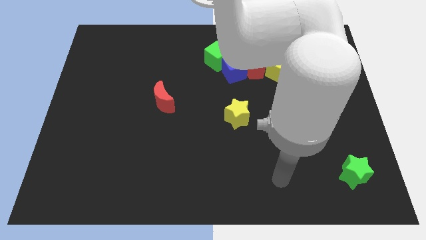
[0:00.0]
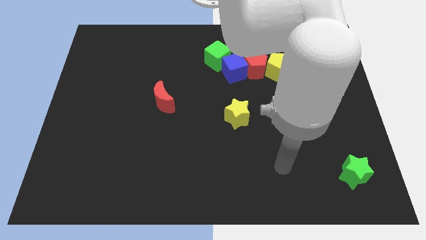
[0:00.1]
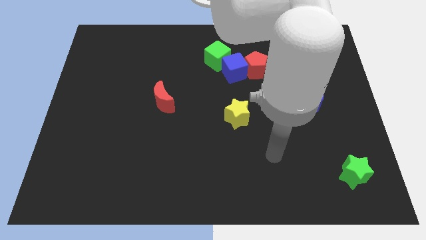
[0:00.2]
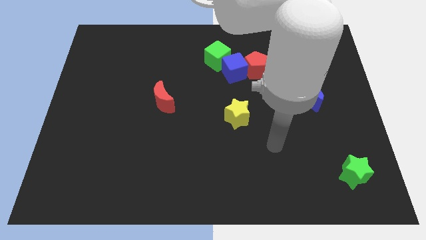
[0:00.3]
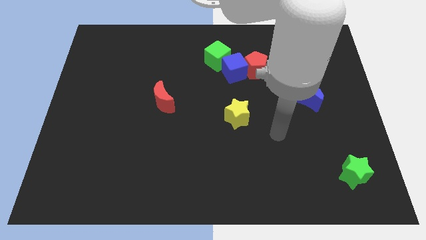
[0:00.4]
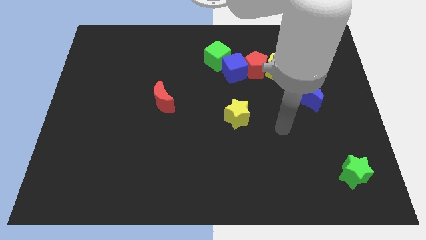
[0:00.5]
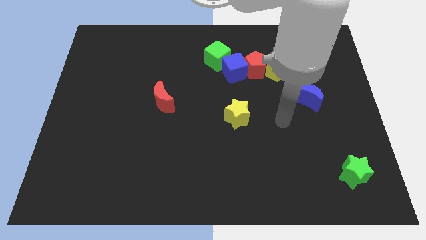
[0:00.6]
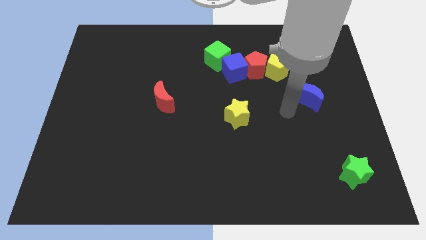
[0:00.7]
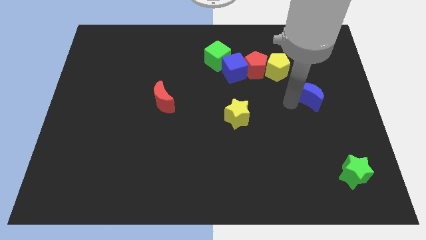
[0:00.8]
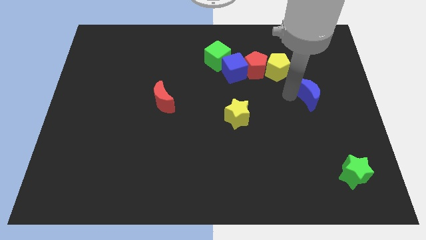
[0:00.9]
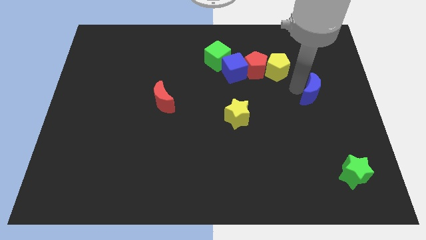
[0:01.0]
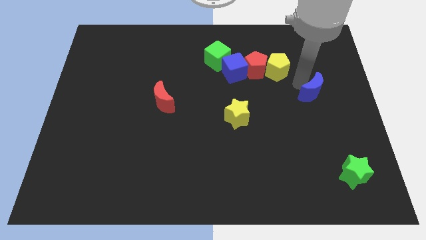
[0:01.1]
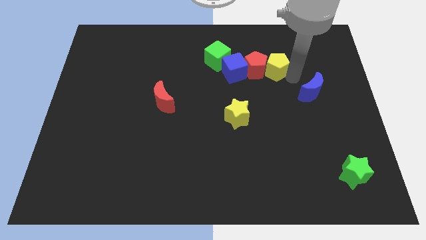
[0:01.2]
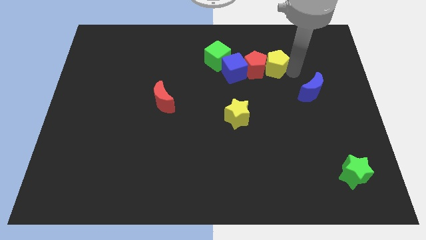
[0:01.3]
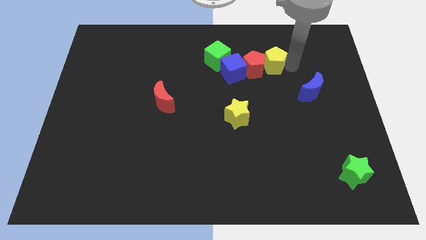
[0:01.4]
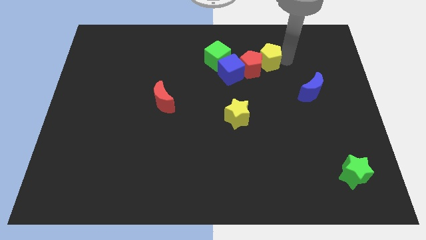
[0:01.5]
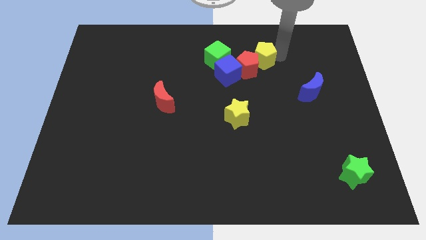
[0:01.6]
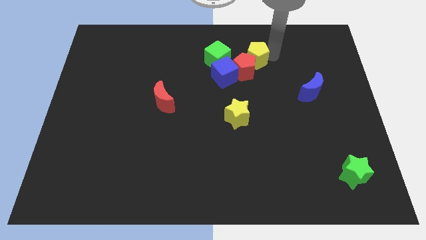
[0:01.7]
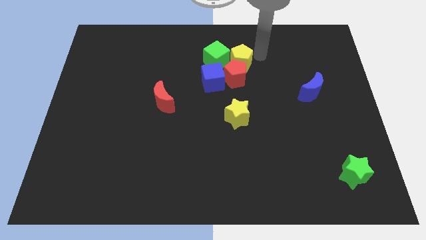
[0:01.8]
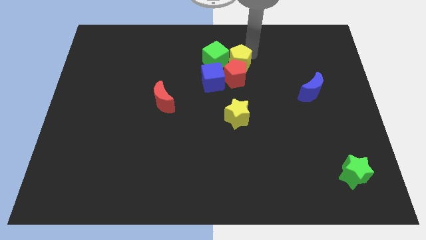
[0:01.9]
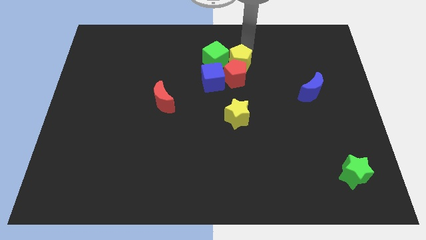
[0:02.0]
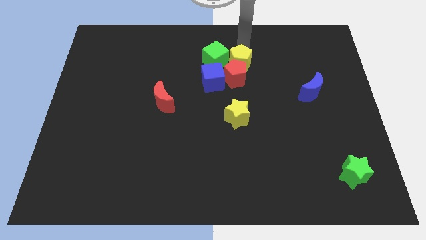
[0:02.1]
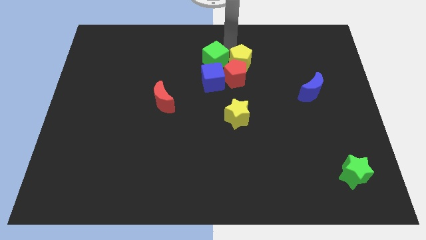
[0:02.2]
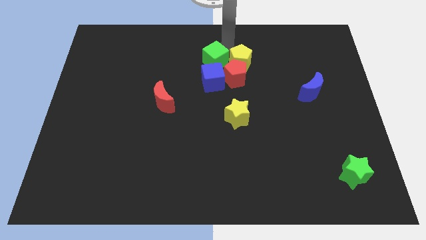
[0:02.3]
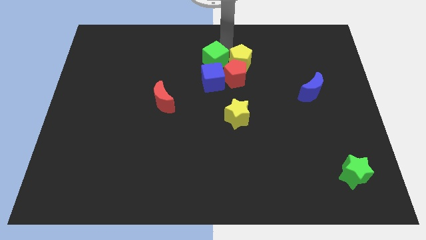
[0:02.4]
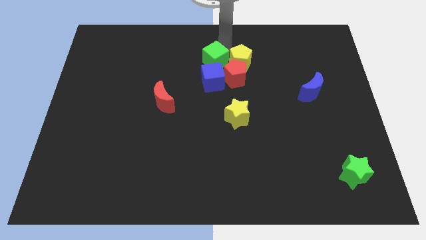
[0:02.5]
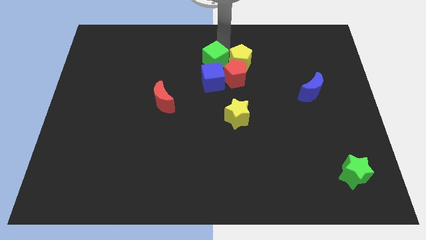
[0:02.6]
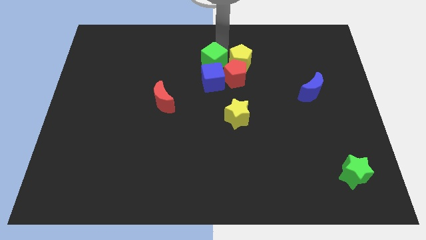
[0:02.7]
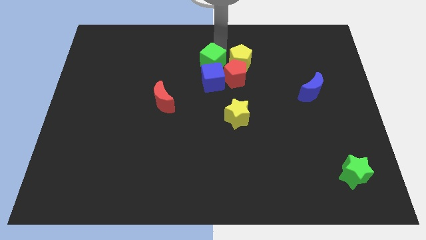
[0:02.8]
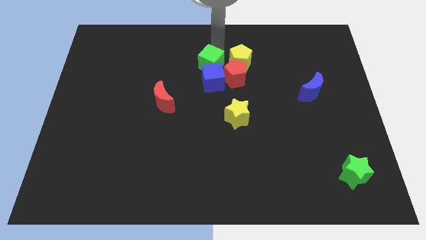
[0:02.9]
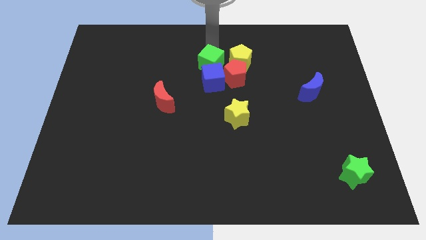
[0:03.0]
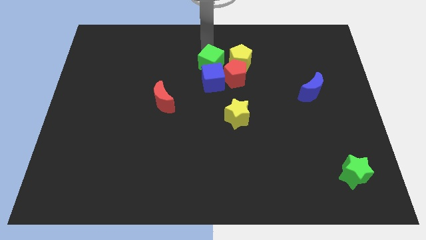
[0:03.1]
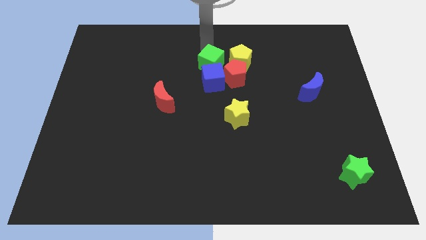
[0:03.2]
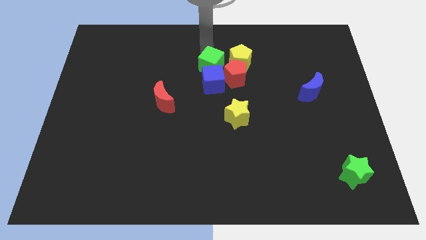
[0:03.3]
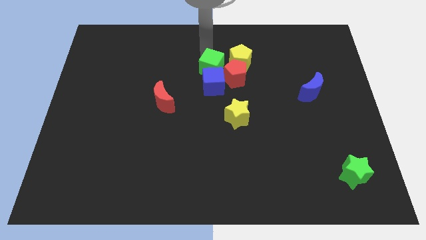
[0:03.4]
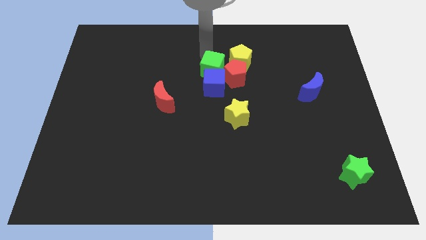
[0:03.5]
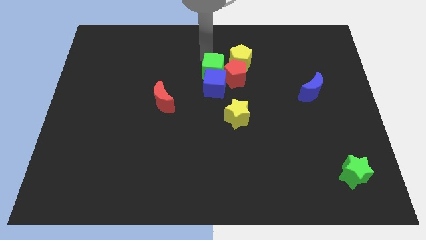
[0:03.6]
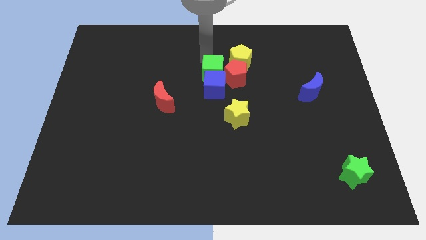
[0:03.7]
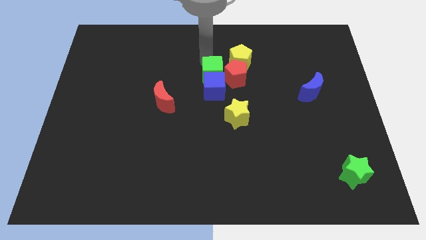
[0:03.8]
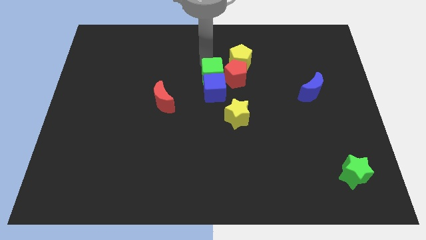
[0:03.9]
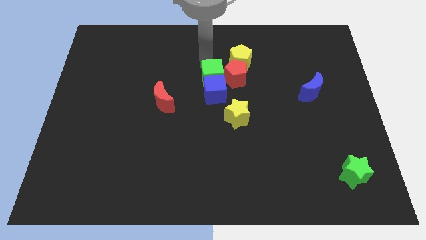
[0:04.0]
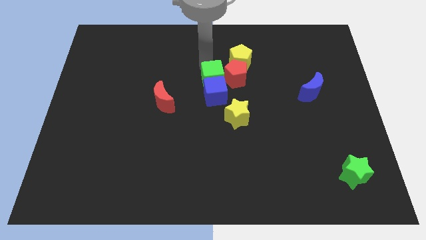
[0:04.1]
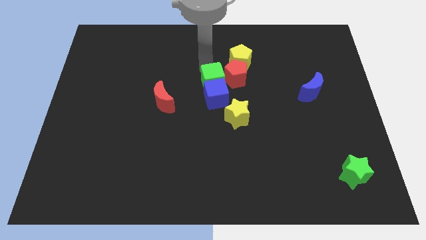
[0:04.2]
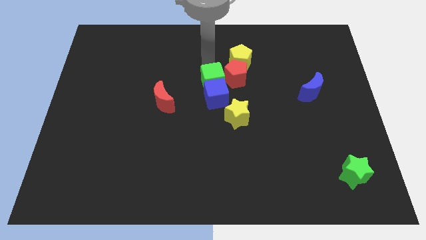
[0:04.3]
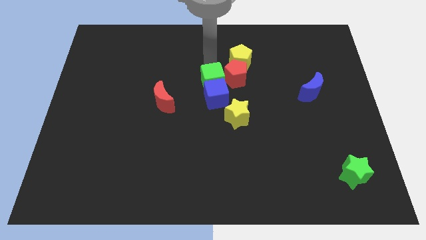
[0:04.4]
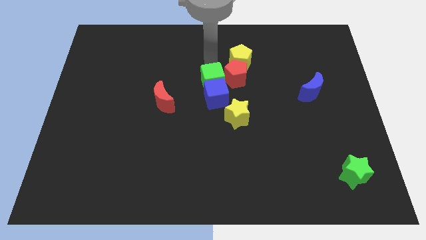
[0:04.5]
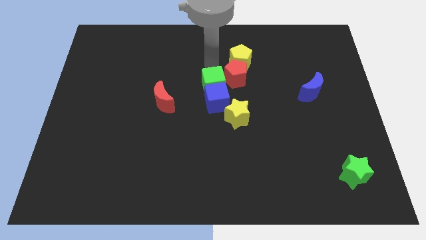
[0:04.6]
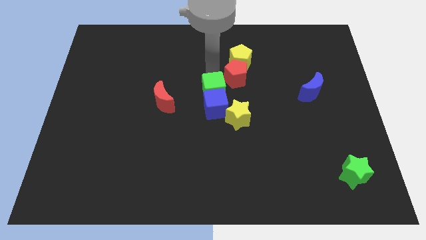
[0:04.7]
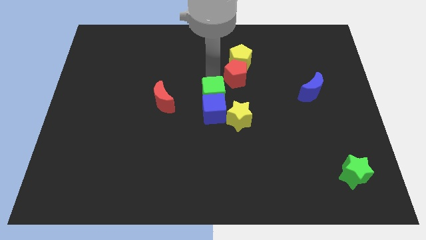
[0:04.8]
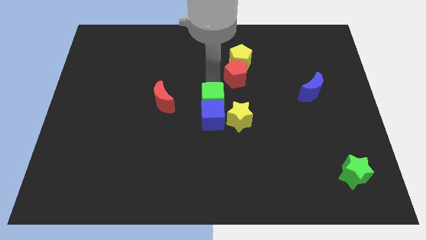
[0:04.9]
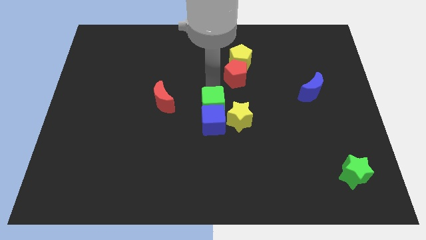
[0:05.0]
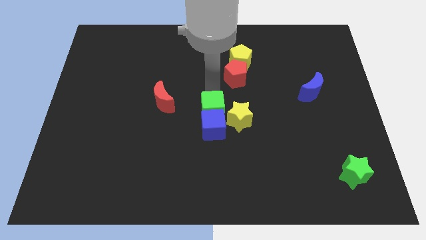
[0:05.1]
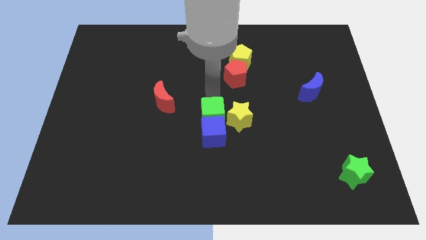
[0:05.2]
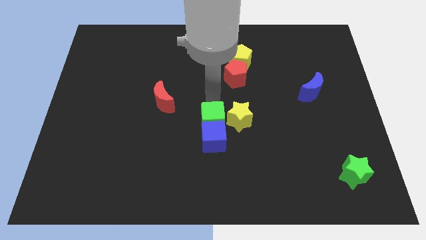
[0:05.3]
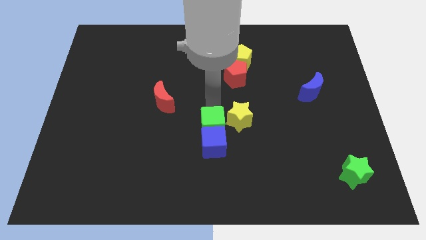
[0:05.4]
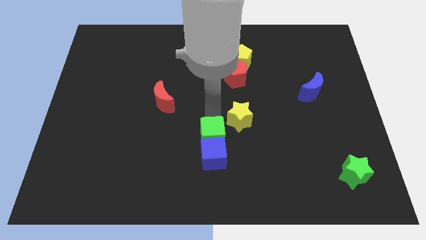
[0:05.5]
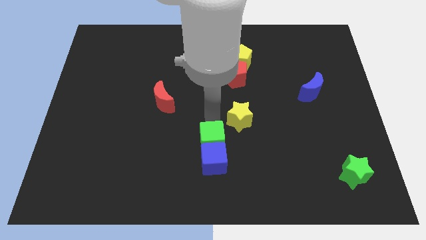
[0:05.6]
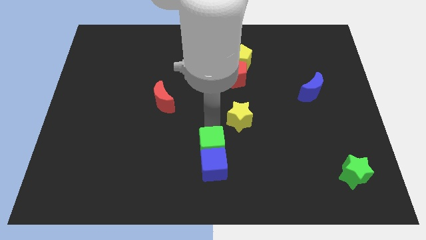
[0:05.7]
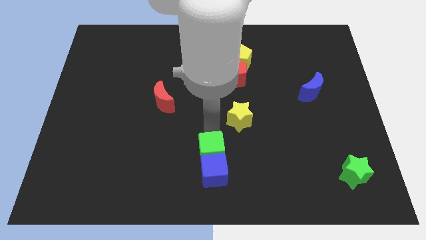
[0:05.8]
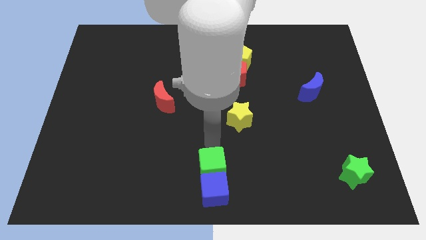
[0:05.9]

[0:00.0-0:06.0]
move the green cube to the bottom
